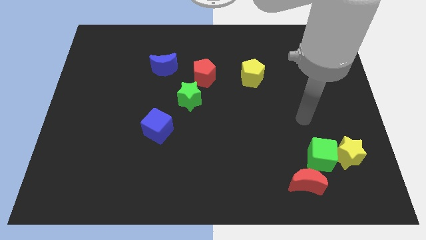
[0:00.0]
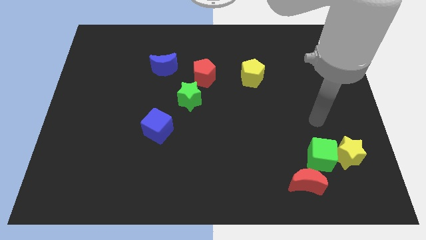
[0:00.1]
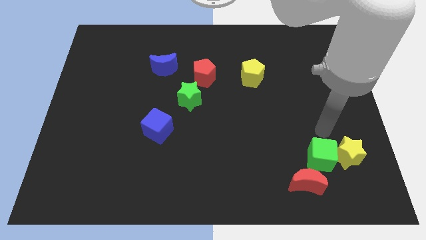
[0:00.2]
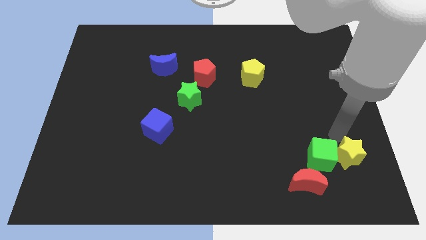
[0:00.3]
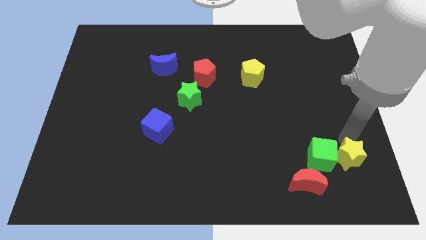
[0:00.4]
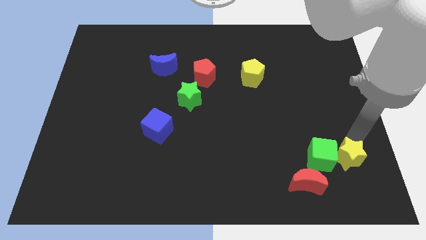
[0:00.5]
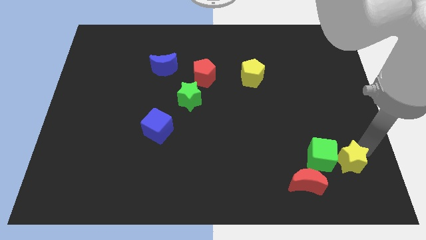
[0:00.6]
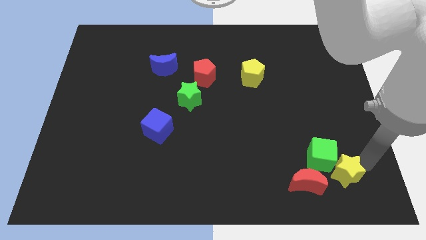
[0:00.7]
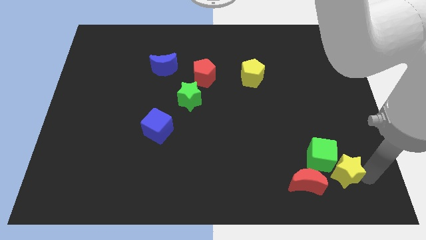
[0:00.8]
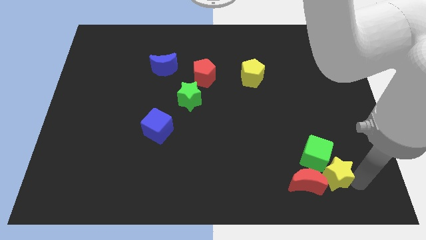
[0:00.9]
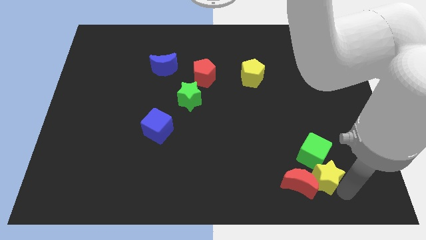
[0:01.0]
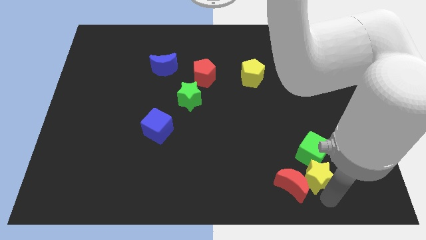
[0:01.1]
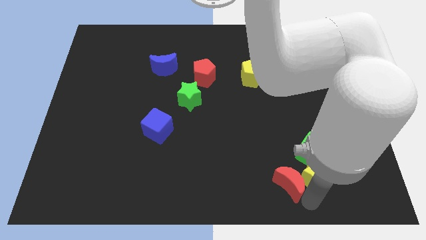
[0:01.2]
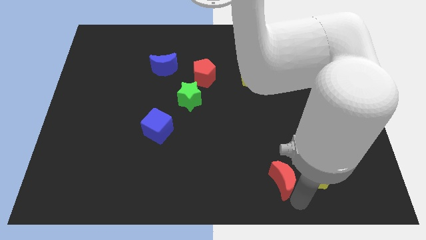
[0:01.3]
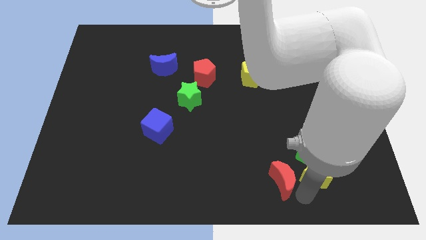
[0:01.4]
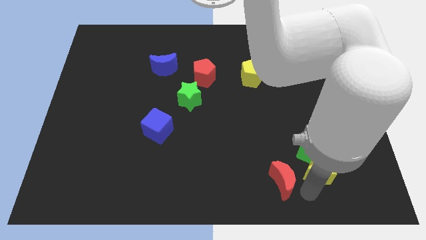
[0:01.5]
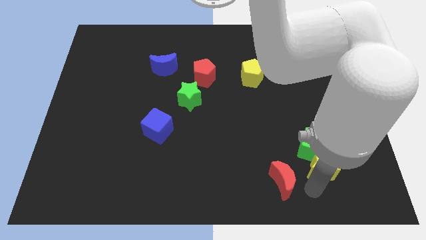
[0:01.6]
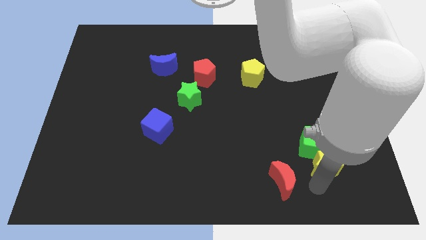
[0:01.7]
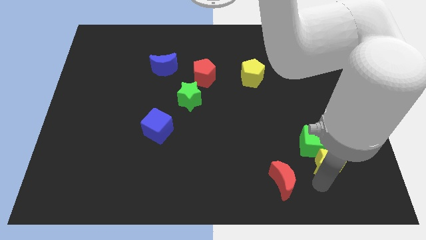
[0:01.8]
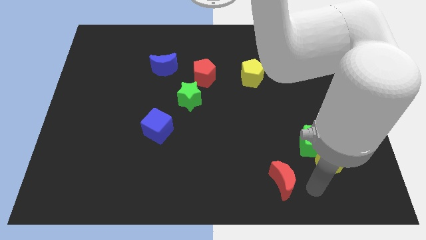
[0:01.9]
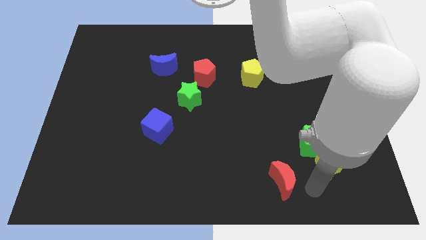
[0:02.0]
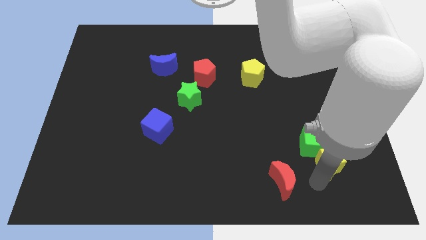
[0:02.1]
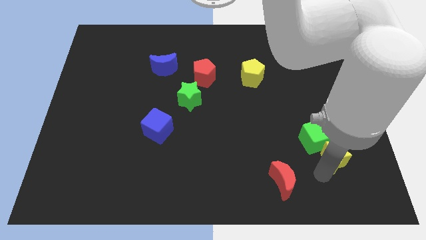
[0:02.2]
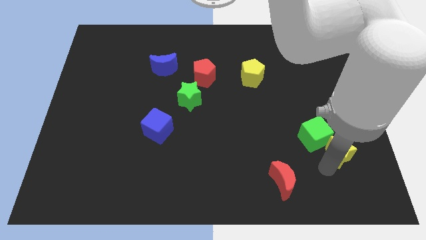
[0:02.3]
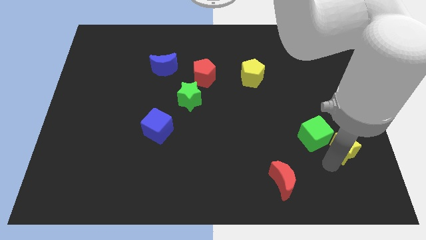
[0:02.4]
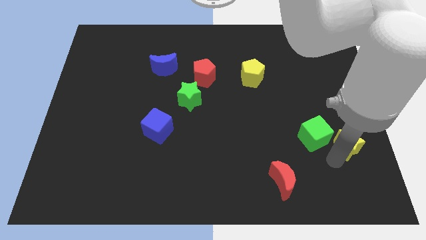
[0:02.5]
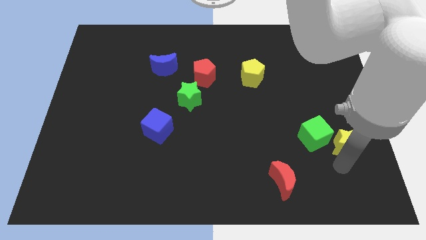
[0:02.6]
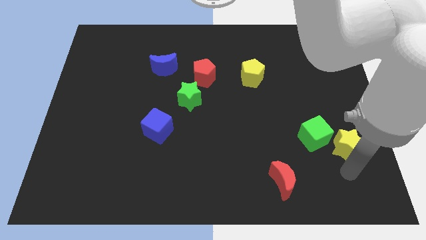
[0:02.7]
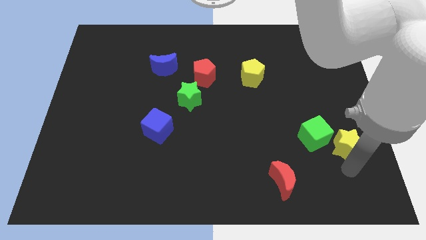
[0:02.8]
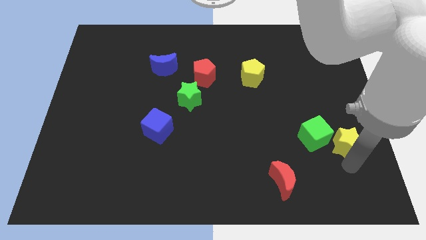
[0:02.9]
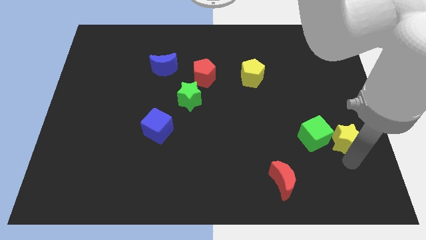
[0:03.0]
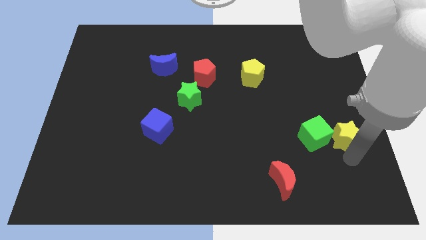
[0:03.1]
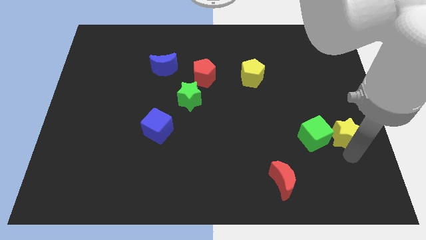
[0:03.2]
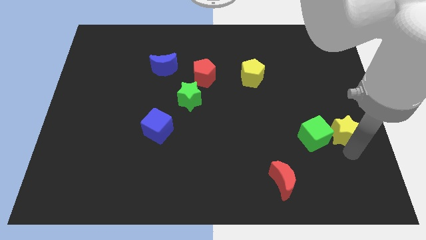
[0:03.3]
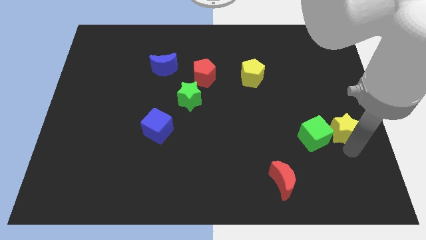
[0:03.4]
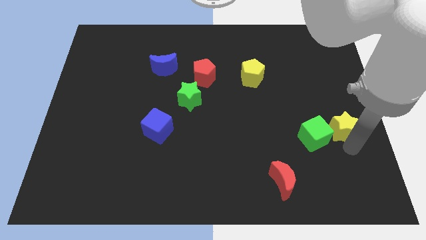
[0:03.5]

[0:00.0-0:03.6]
move the yellow star upwards somewhat

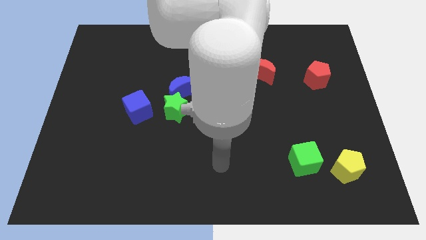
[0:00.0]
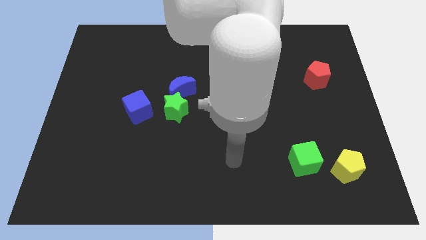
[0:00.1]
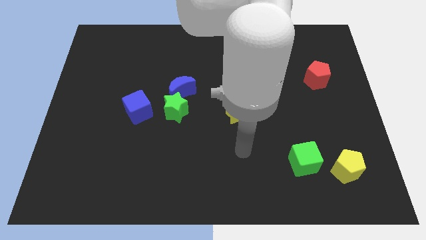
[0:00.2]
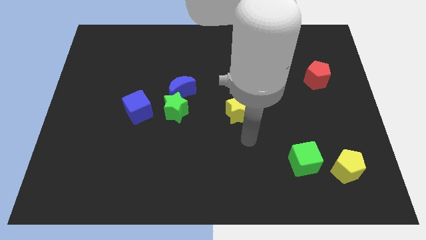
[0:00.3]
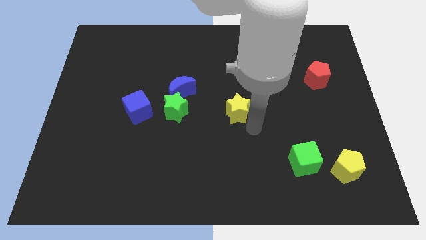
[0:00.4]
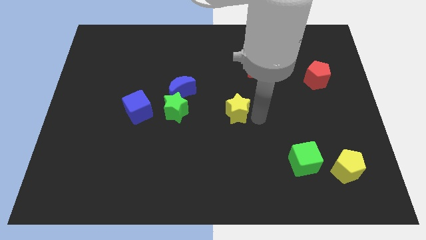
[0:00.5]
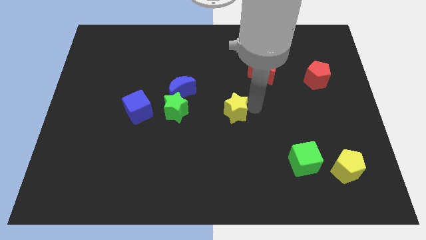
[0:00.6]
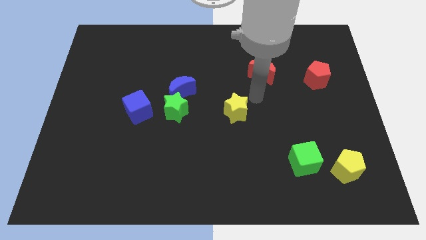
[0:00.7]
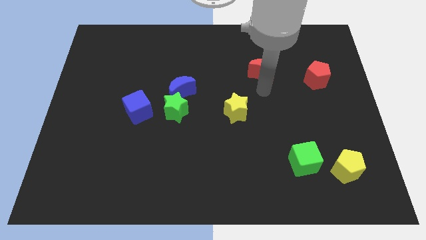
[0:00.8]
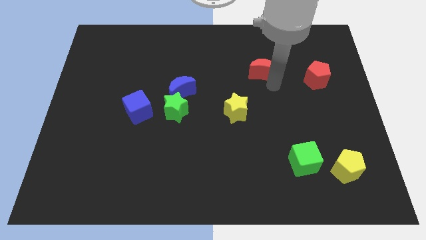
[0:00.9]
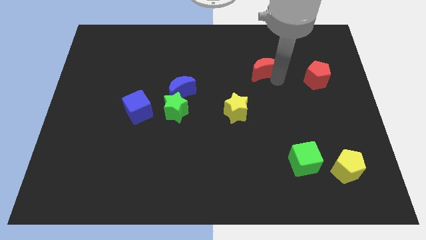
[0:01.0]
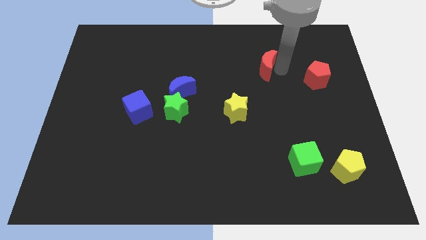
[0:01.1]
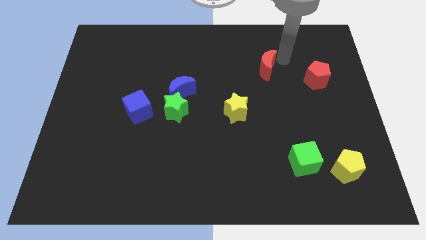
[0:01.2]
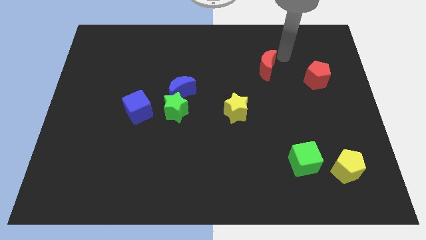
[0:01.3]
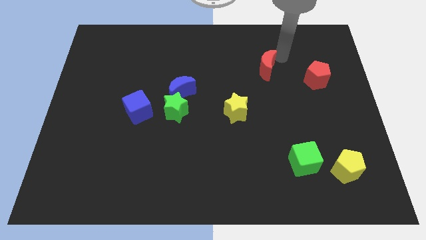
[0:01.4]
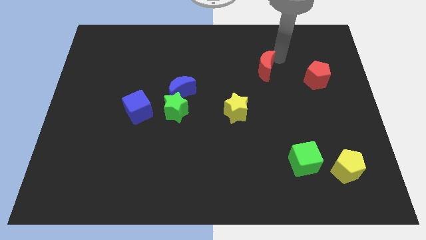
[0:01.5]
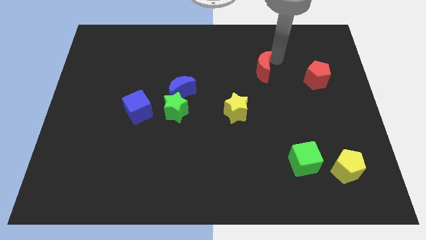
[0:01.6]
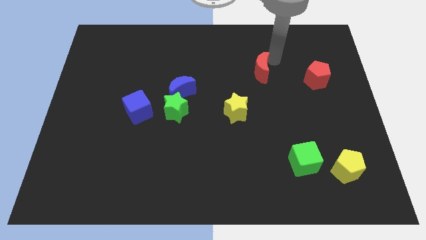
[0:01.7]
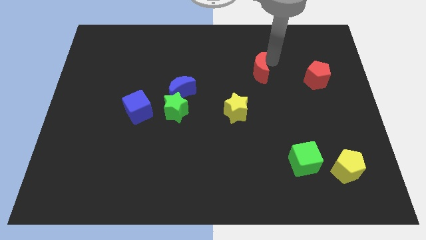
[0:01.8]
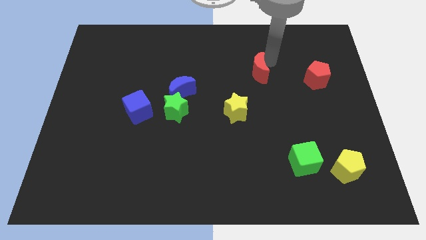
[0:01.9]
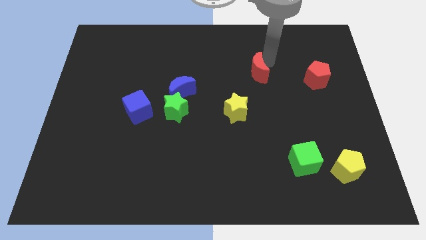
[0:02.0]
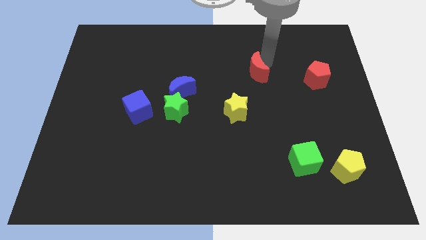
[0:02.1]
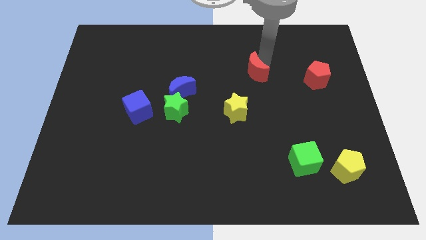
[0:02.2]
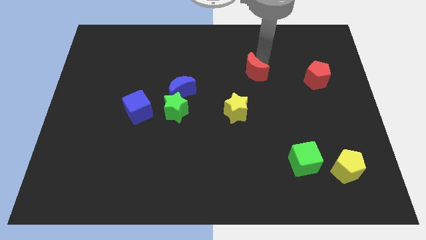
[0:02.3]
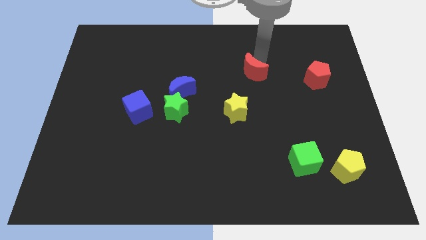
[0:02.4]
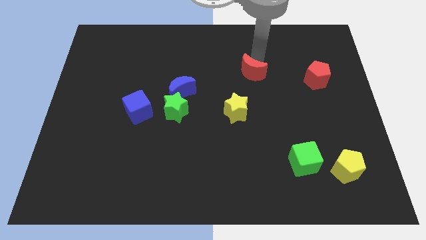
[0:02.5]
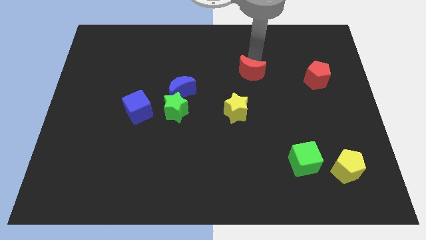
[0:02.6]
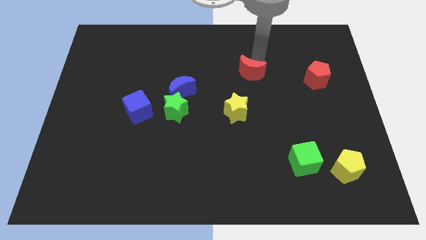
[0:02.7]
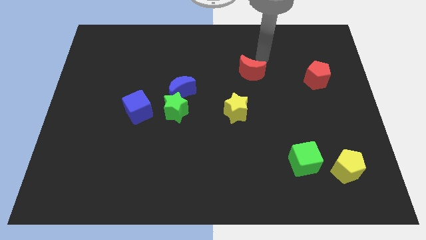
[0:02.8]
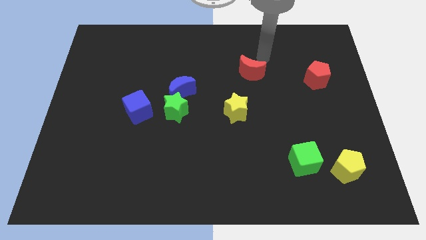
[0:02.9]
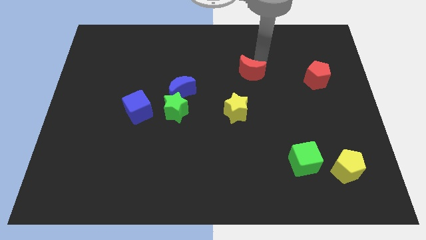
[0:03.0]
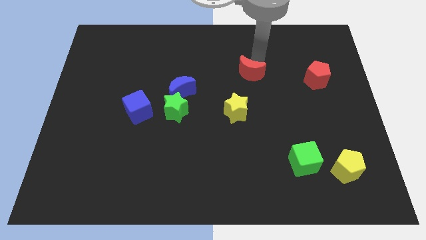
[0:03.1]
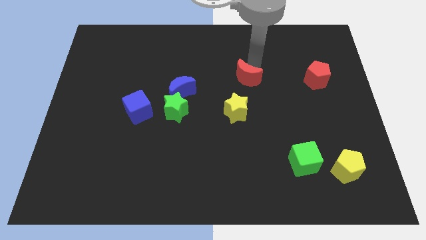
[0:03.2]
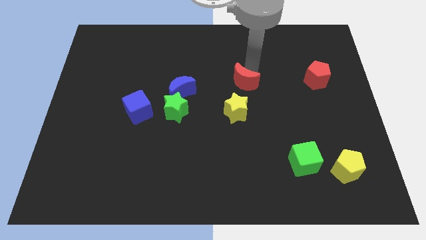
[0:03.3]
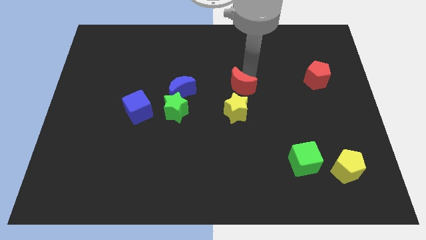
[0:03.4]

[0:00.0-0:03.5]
slide the red moon a little down and left diagonally

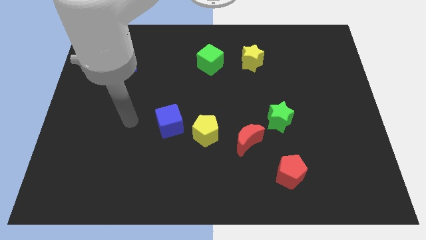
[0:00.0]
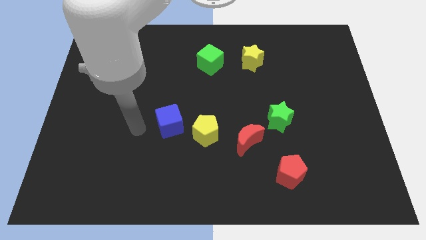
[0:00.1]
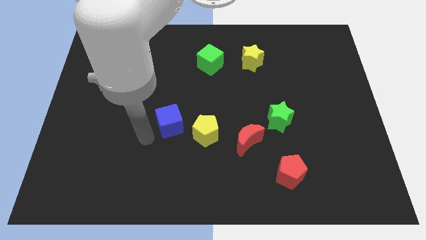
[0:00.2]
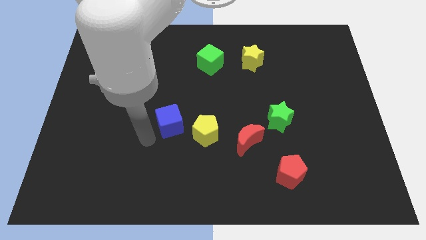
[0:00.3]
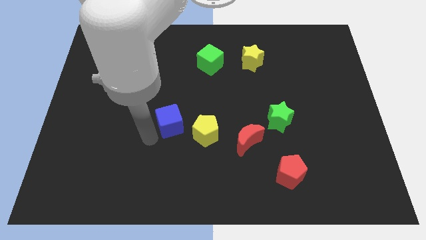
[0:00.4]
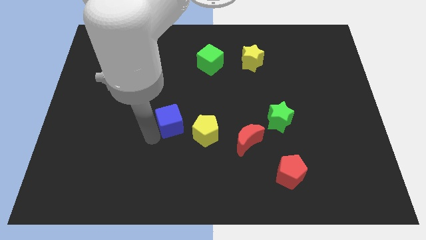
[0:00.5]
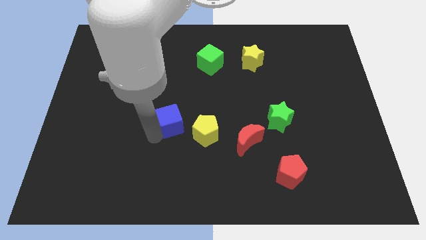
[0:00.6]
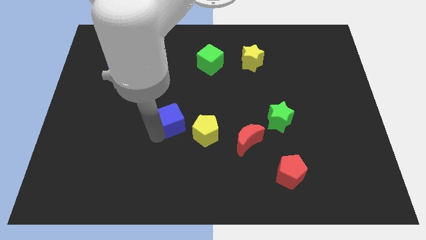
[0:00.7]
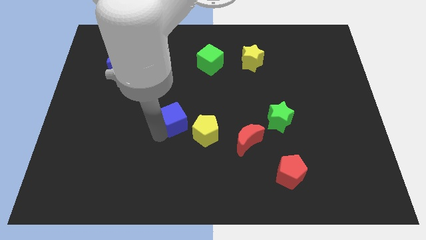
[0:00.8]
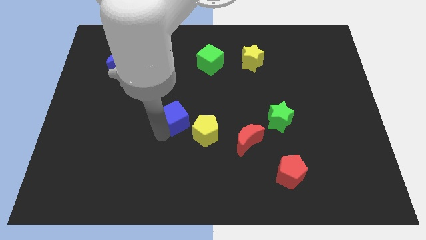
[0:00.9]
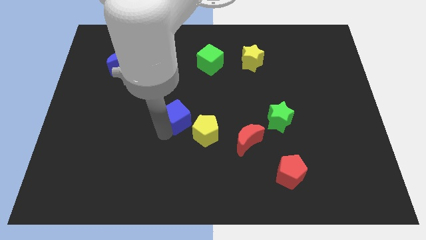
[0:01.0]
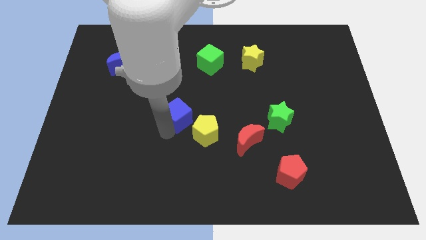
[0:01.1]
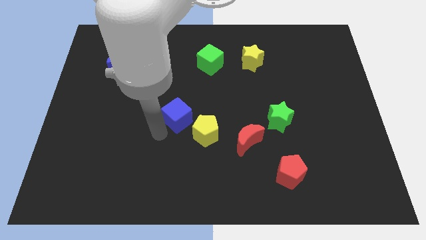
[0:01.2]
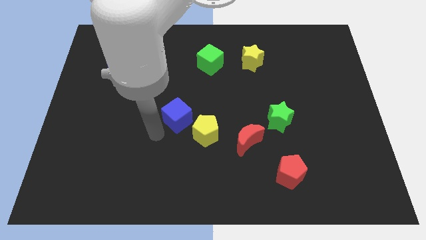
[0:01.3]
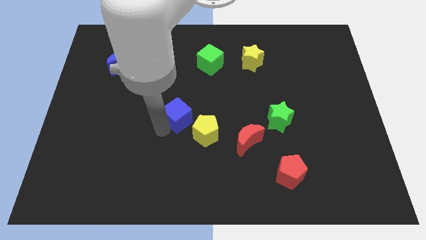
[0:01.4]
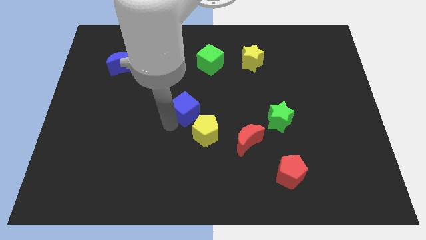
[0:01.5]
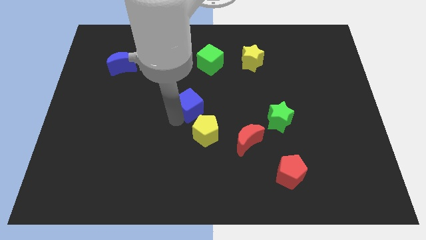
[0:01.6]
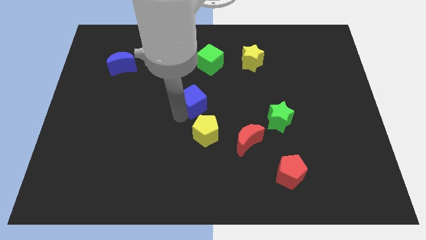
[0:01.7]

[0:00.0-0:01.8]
slightly slide the blue cube upwards and to the right
